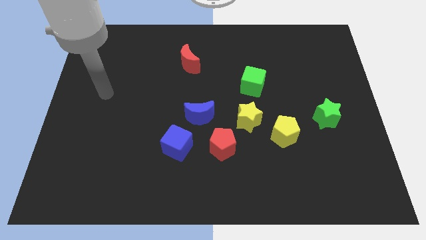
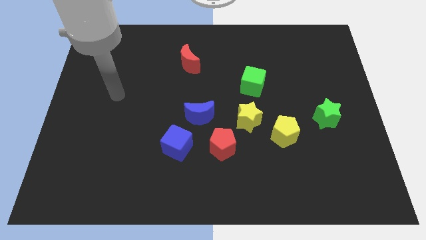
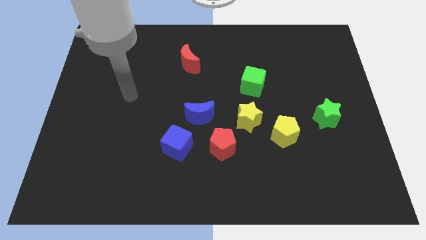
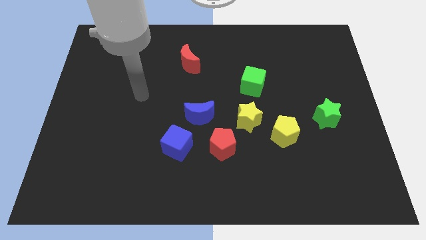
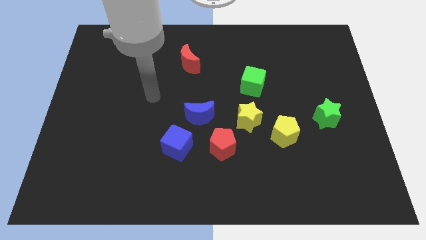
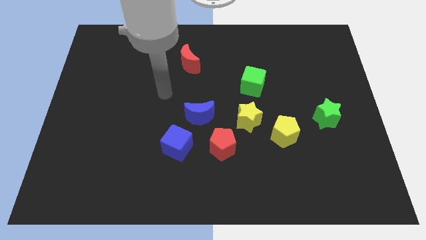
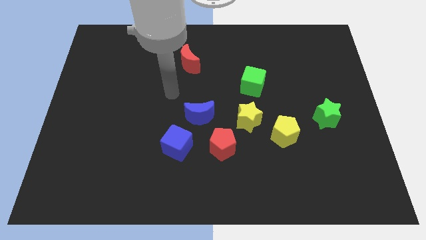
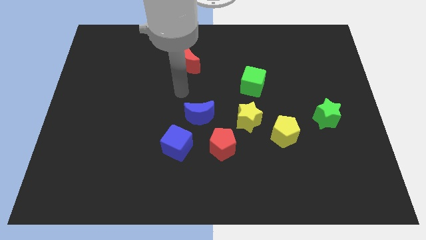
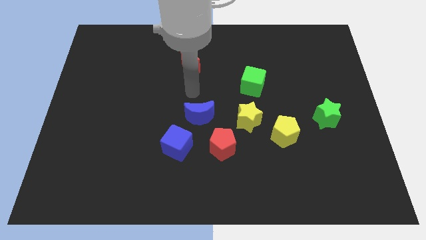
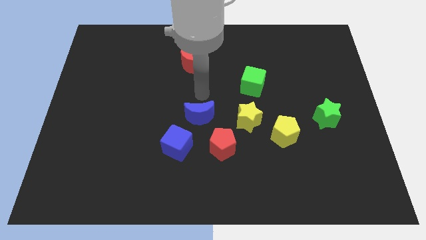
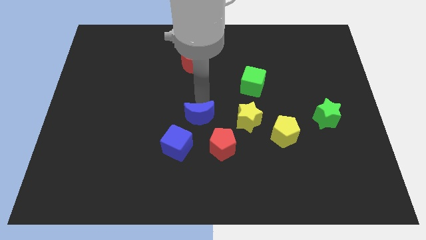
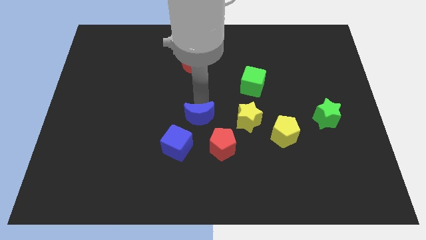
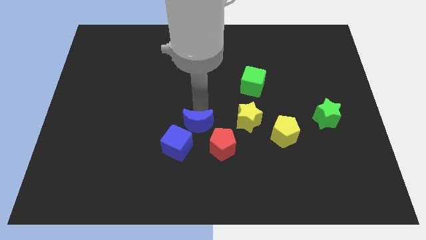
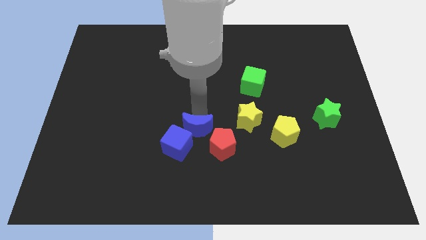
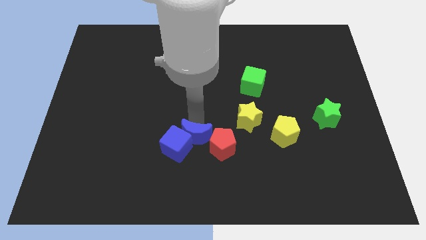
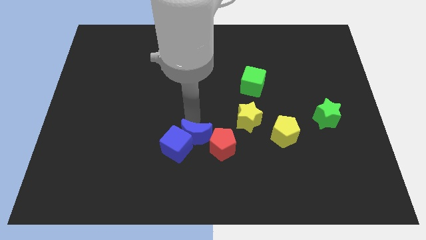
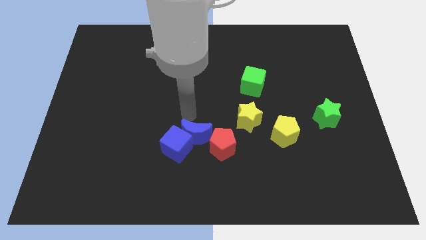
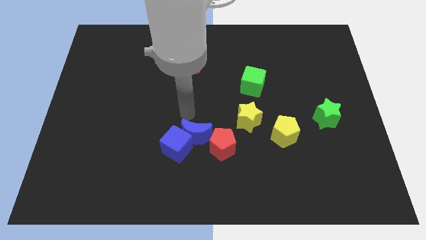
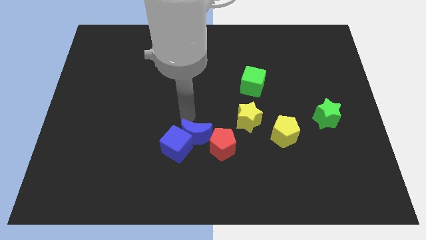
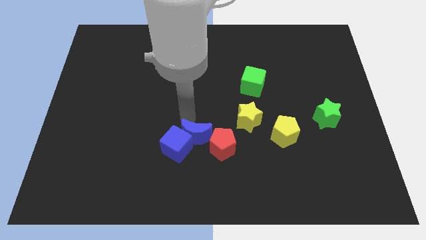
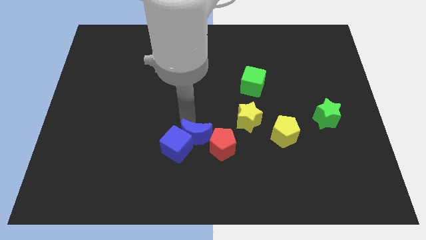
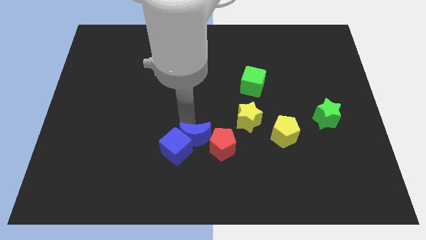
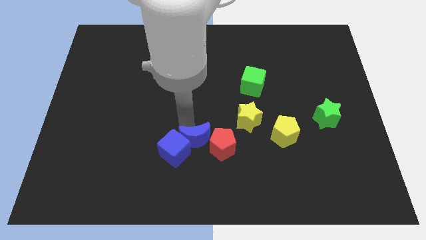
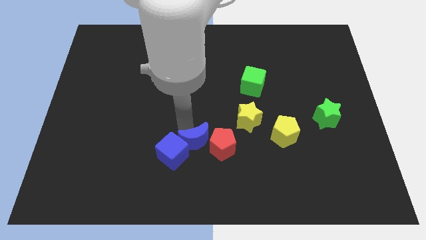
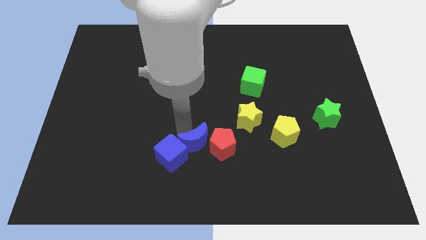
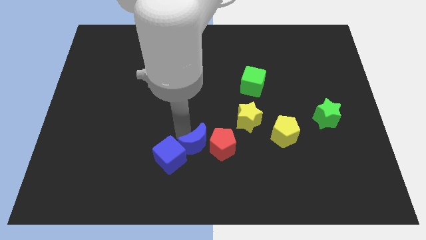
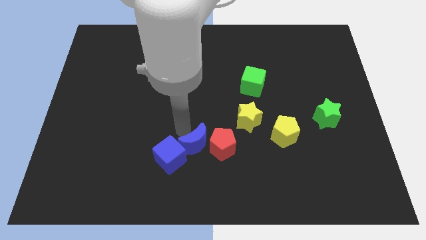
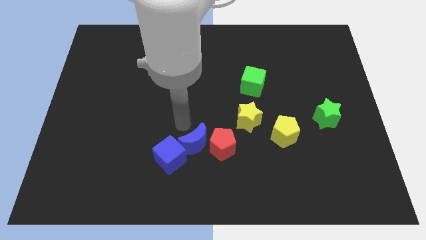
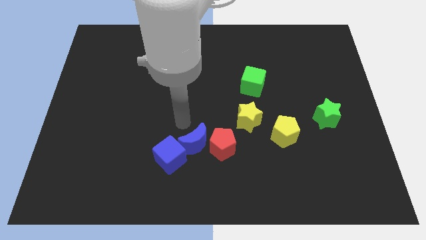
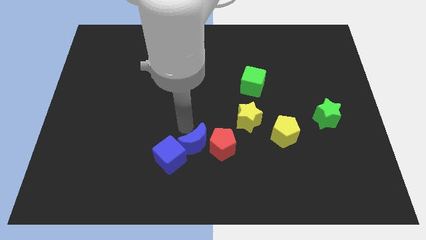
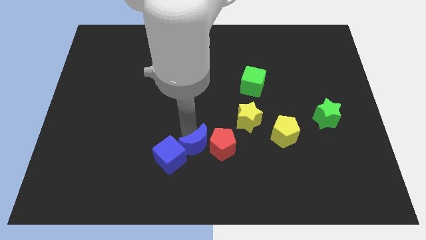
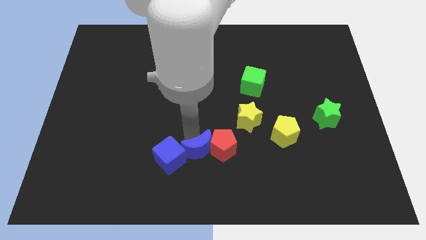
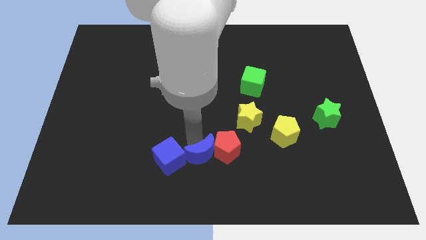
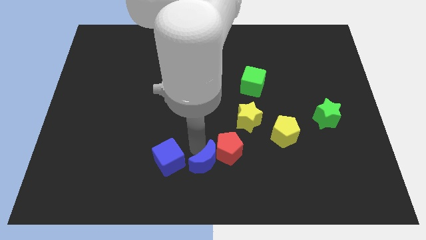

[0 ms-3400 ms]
move the blue moon a little bit downwards and then right

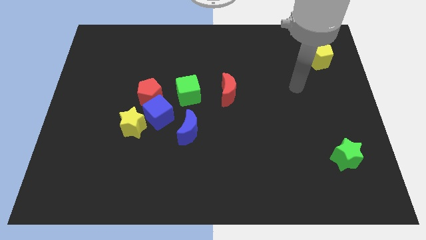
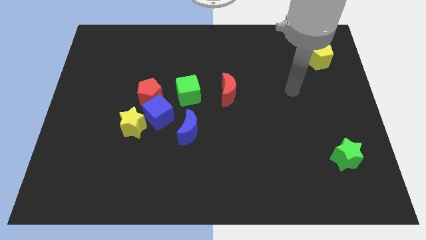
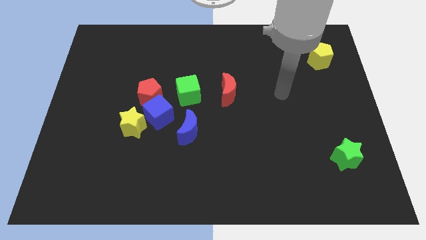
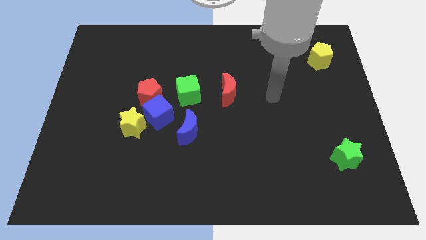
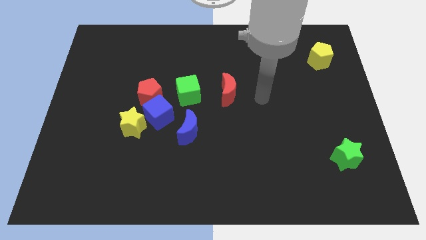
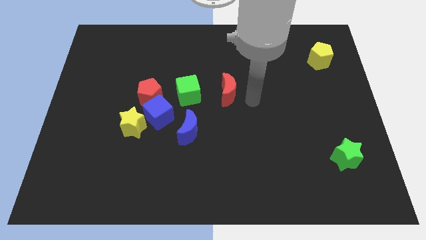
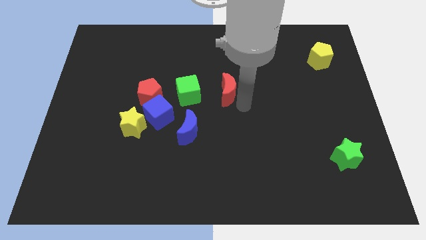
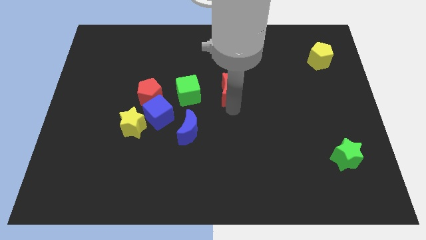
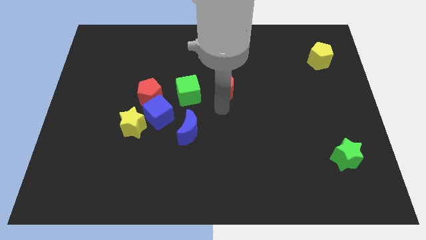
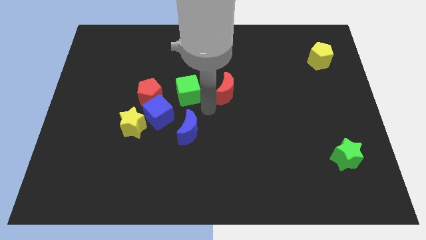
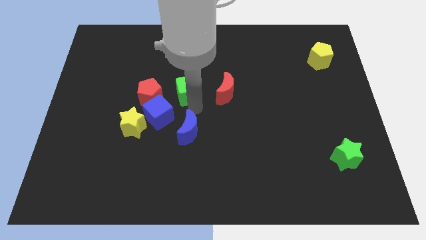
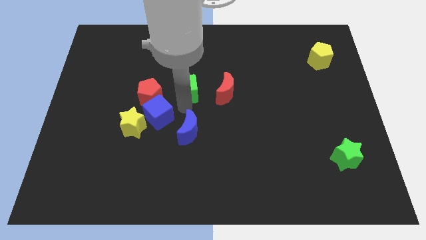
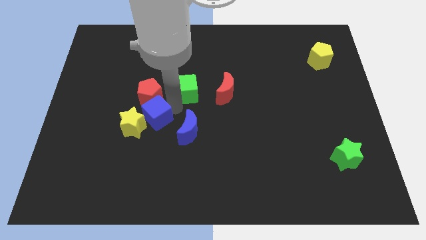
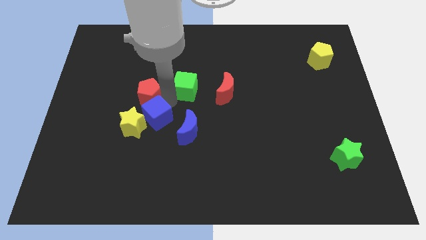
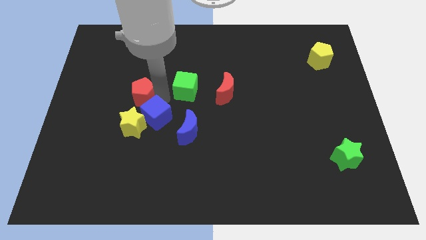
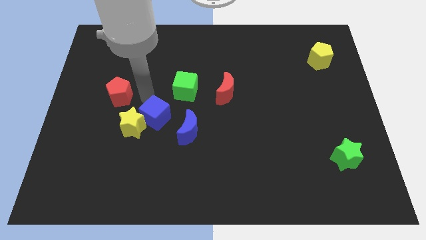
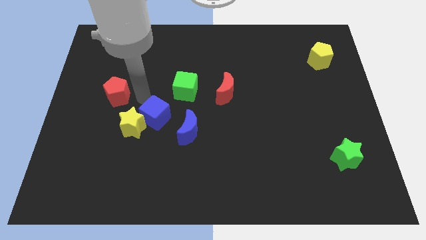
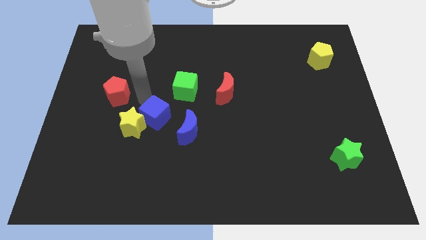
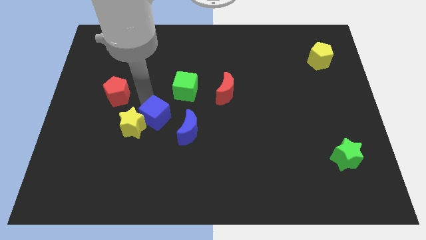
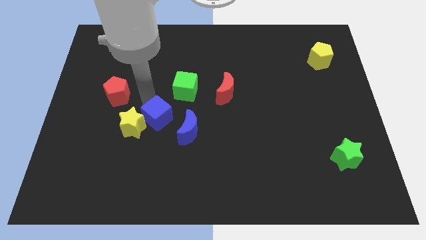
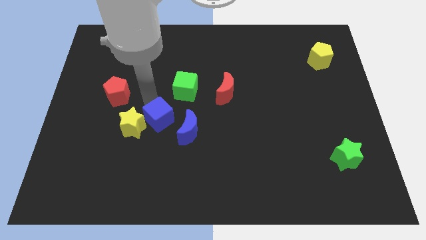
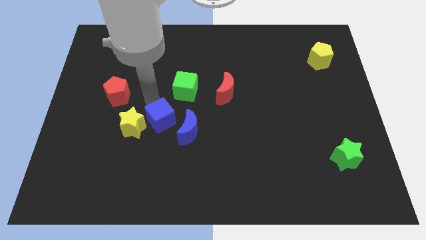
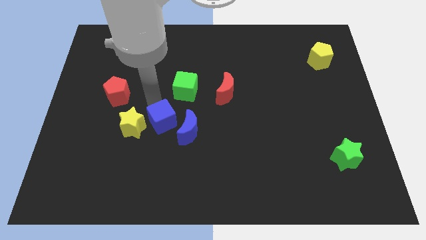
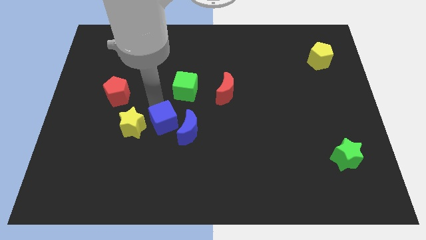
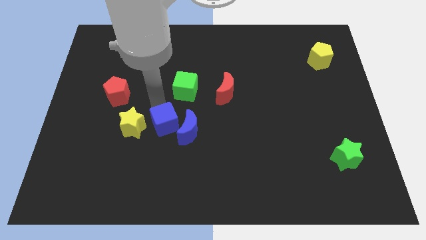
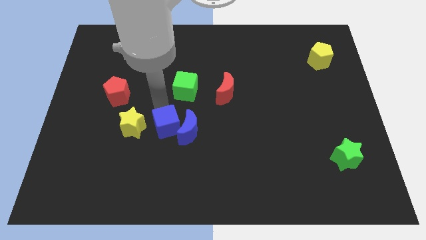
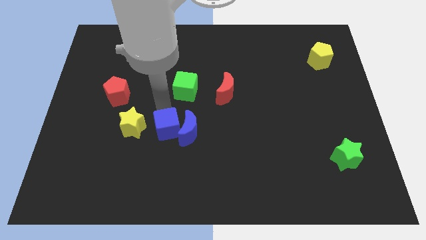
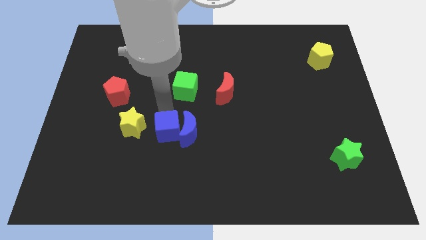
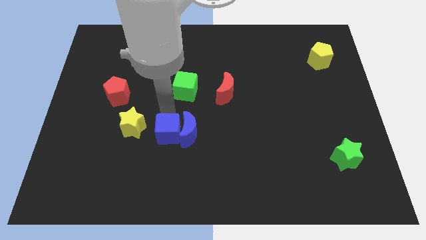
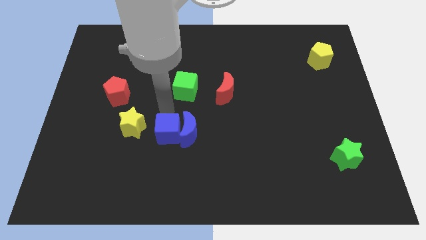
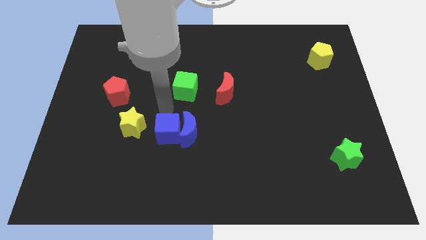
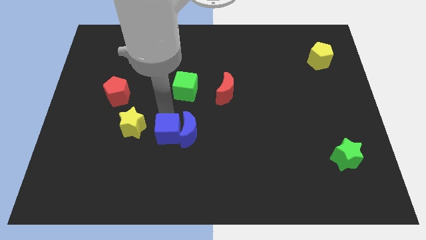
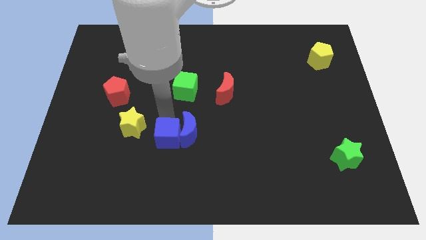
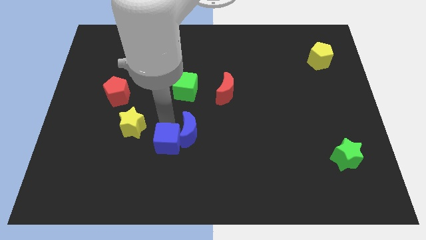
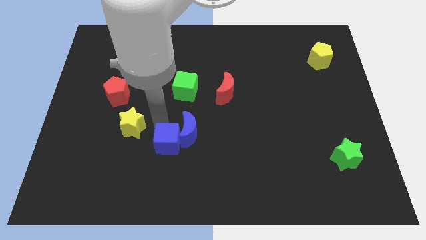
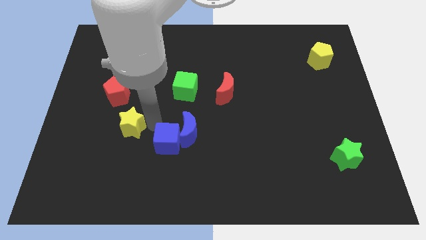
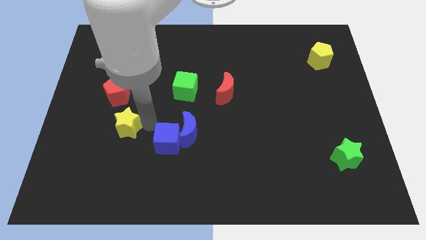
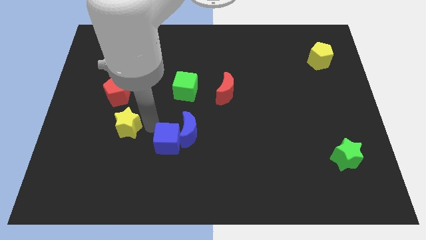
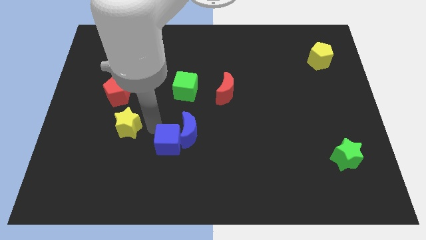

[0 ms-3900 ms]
slightly move the blue cube diagonally downwards and right

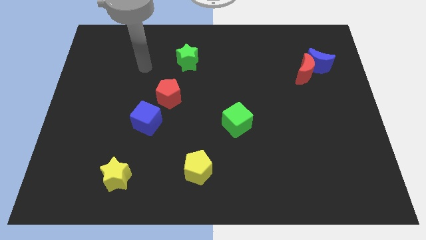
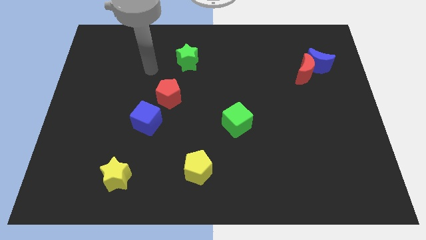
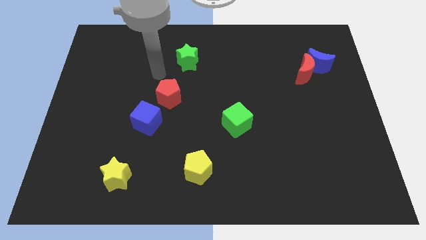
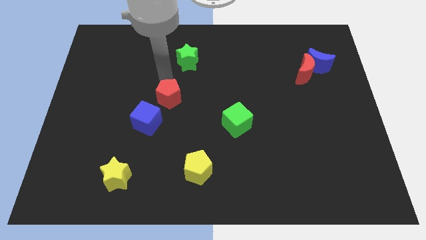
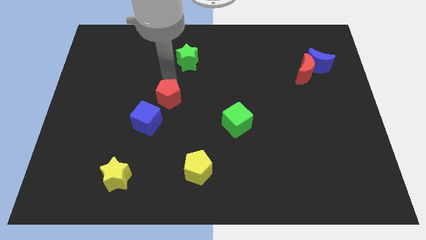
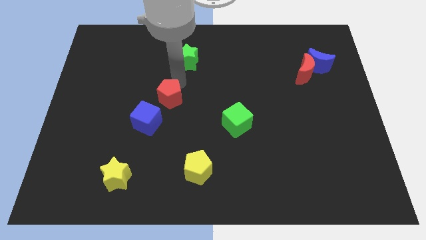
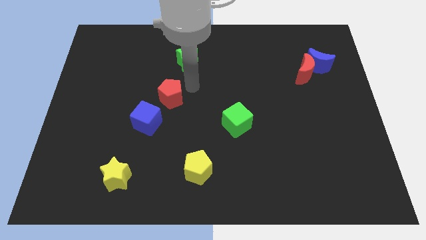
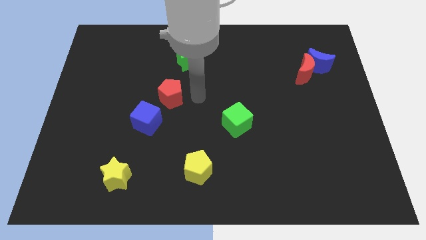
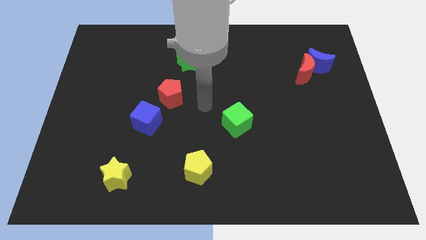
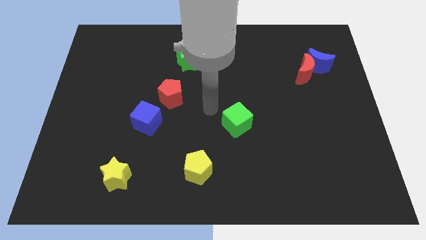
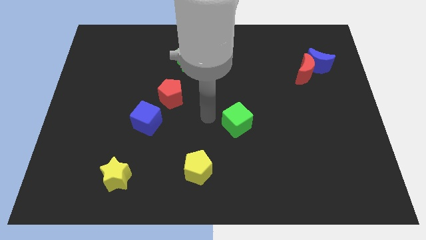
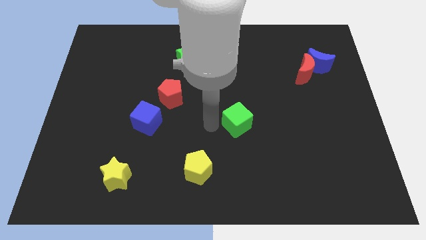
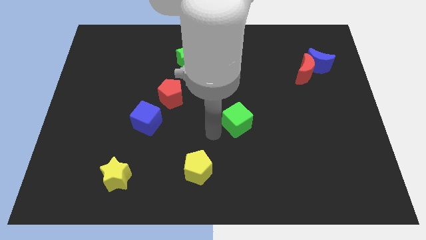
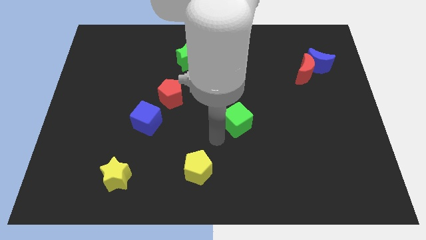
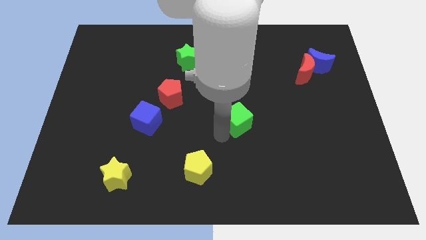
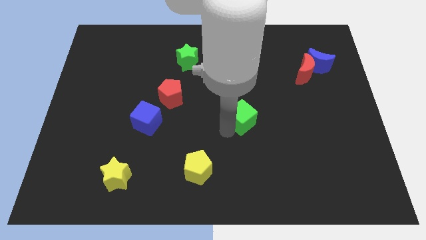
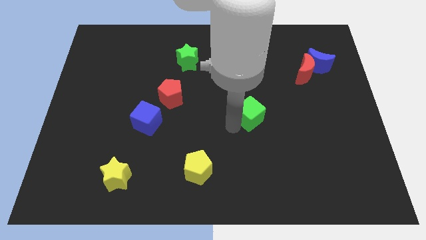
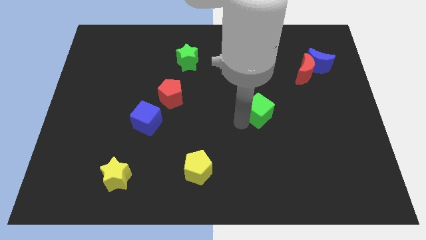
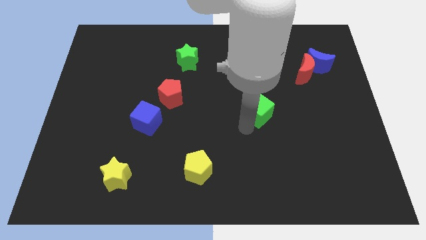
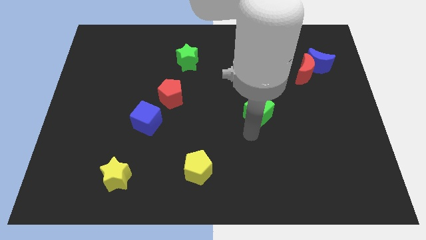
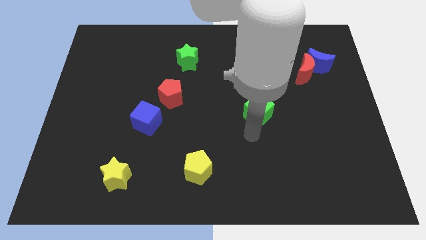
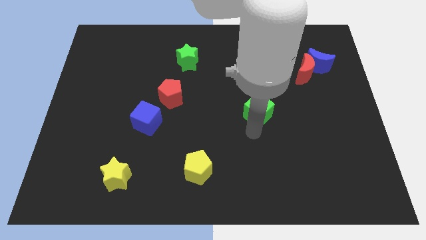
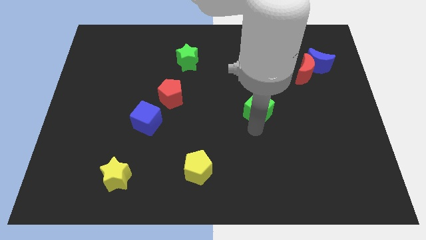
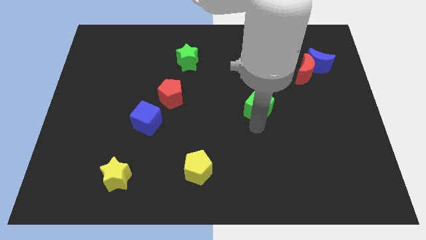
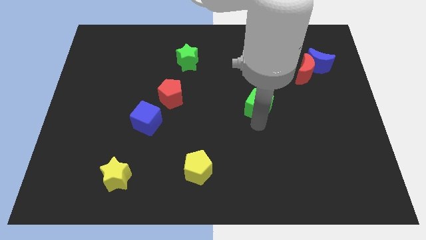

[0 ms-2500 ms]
move the green cube slightly diagonally upwards and right
